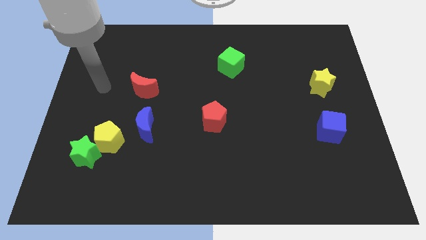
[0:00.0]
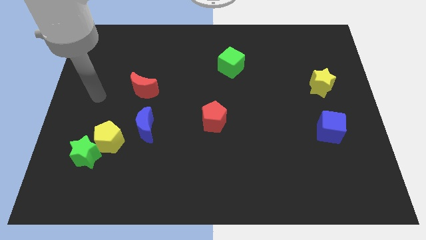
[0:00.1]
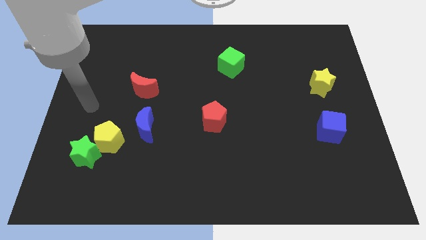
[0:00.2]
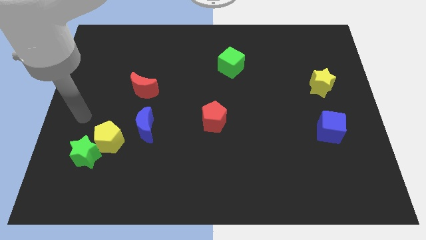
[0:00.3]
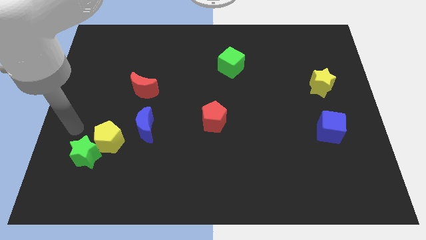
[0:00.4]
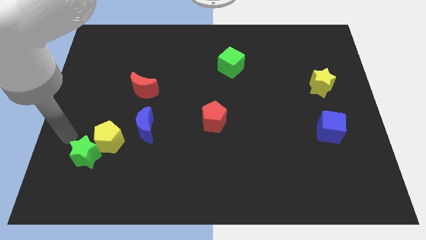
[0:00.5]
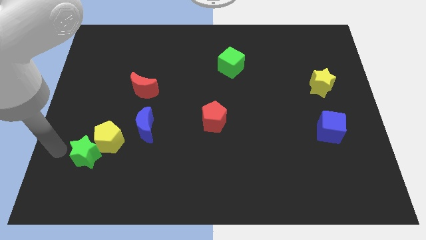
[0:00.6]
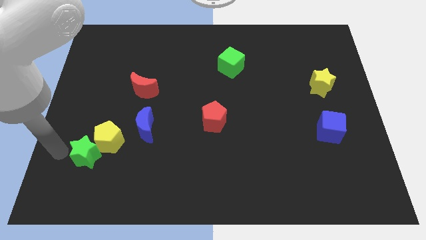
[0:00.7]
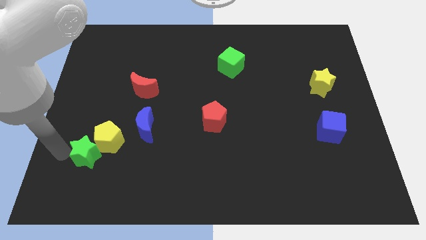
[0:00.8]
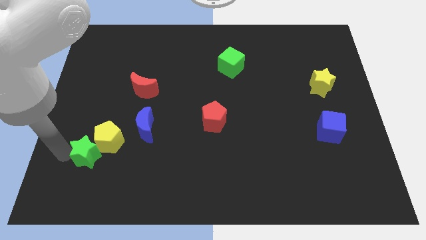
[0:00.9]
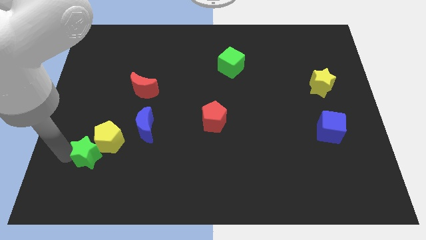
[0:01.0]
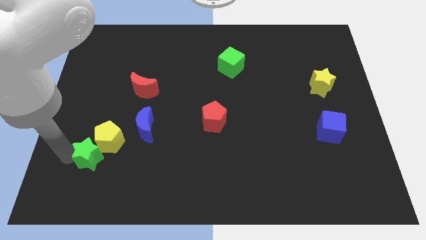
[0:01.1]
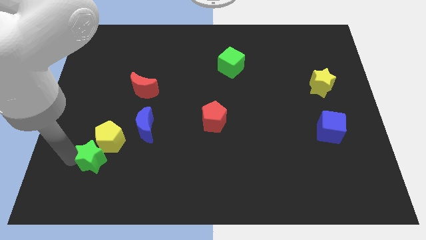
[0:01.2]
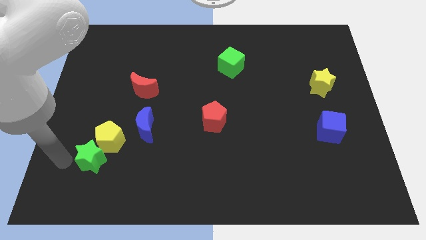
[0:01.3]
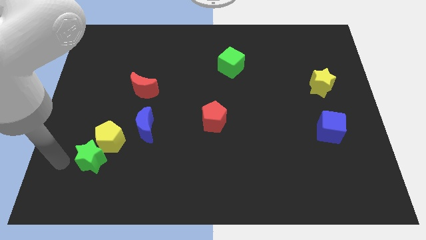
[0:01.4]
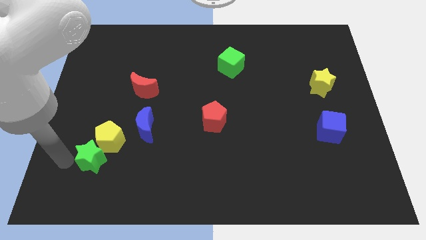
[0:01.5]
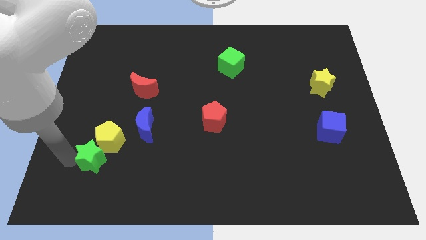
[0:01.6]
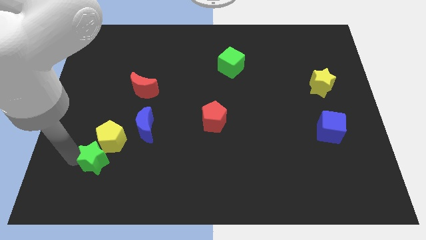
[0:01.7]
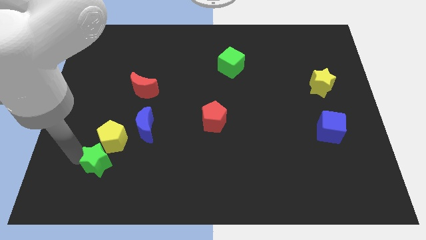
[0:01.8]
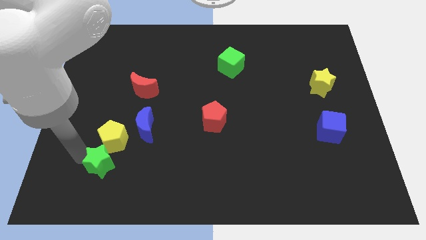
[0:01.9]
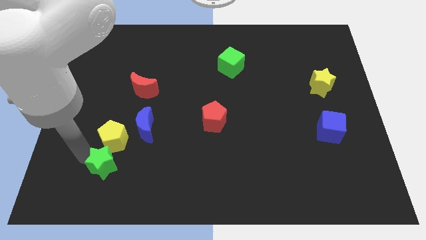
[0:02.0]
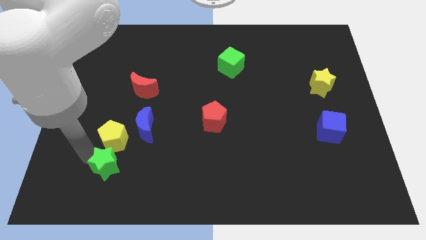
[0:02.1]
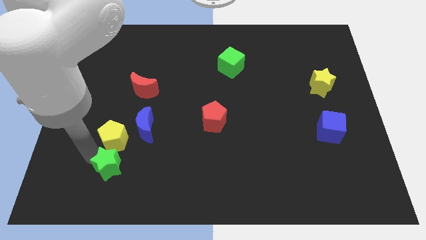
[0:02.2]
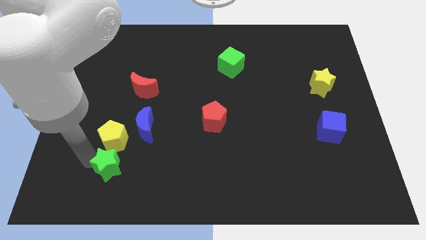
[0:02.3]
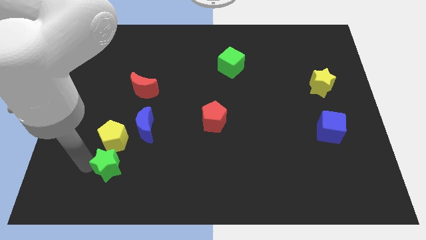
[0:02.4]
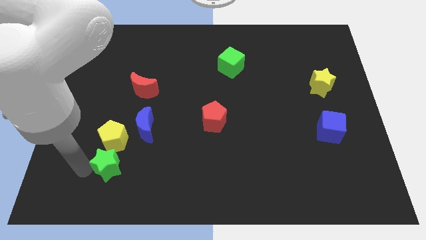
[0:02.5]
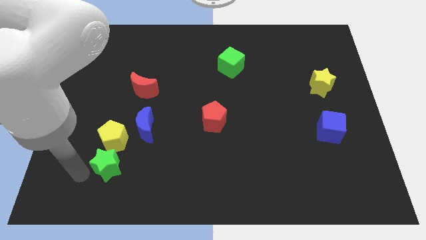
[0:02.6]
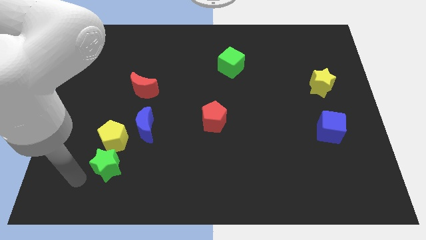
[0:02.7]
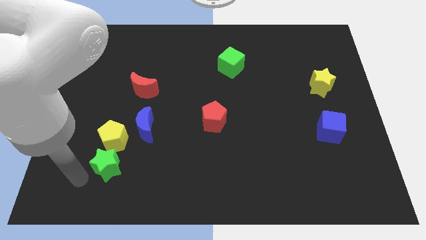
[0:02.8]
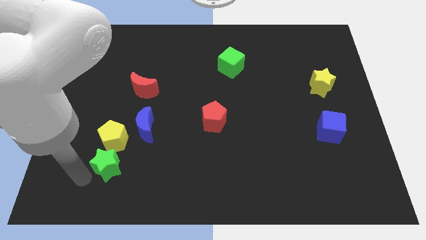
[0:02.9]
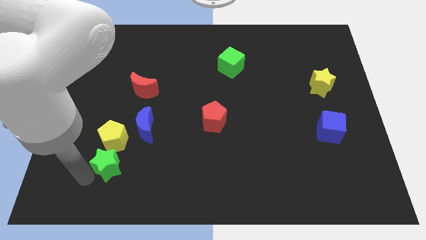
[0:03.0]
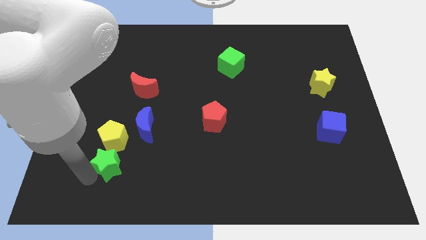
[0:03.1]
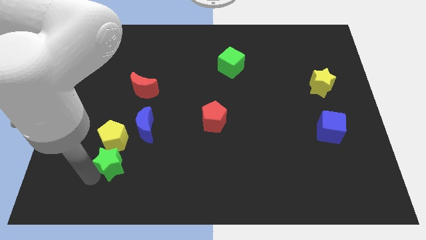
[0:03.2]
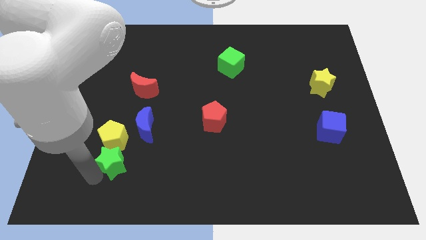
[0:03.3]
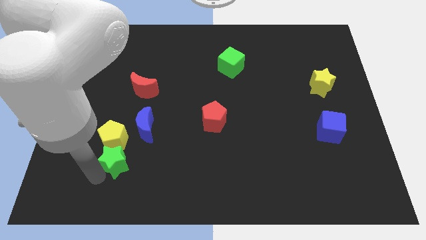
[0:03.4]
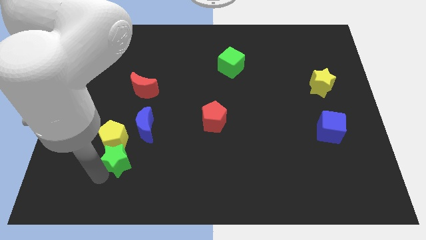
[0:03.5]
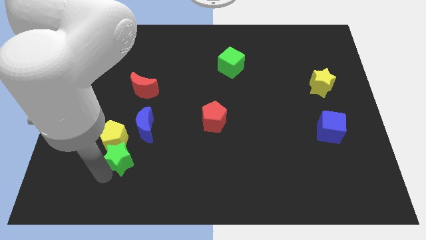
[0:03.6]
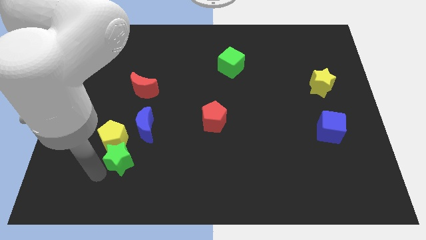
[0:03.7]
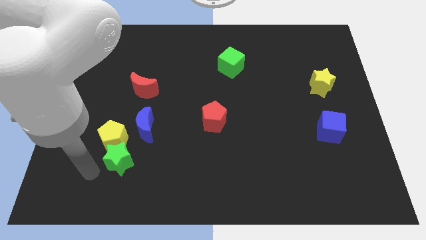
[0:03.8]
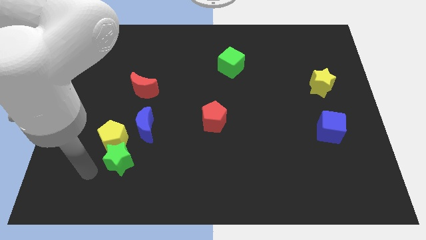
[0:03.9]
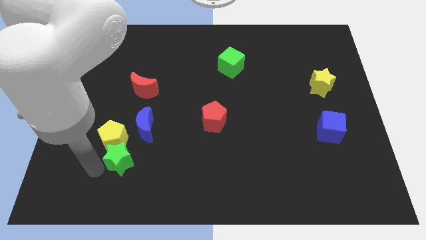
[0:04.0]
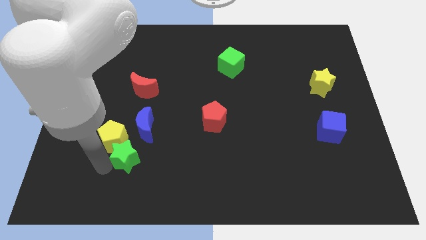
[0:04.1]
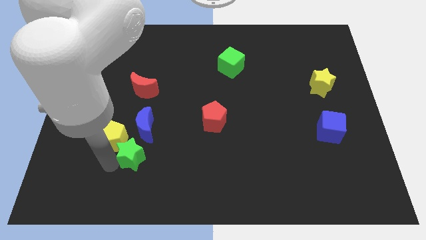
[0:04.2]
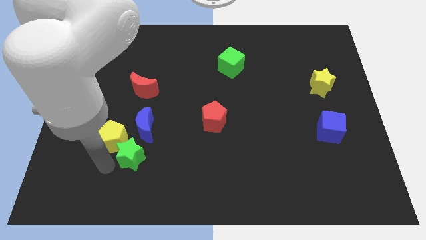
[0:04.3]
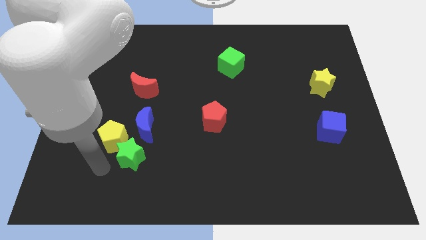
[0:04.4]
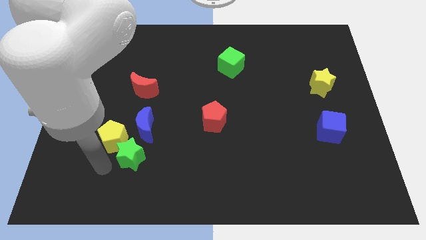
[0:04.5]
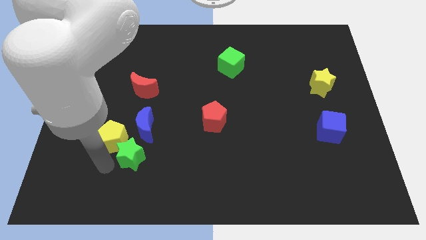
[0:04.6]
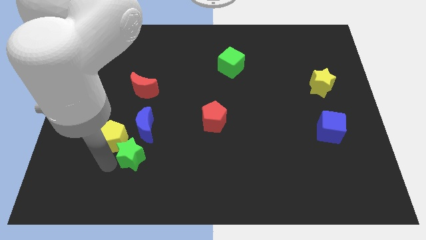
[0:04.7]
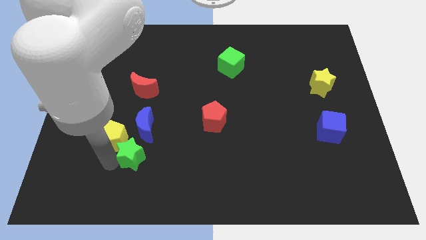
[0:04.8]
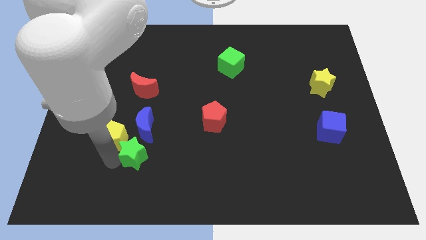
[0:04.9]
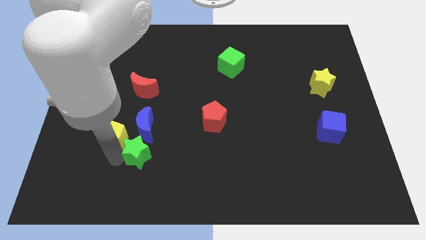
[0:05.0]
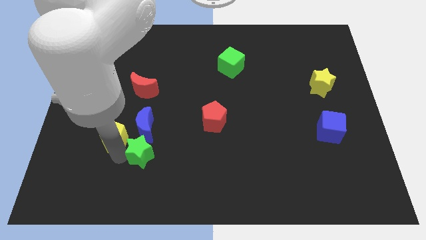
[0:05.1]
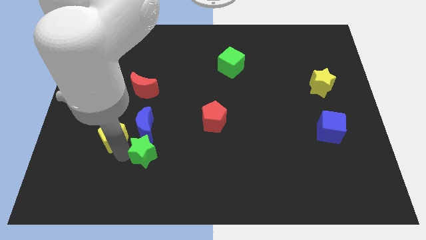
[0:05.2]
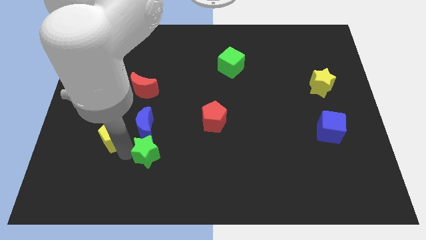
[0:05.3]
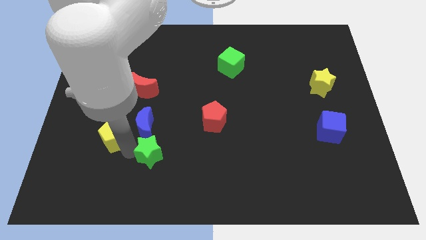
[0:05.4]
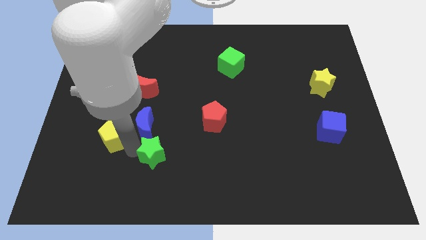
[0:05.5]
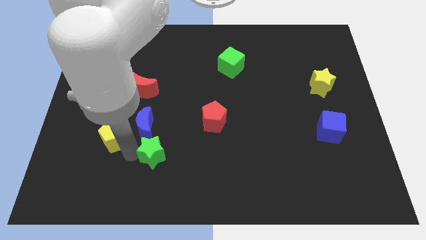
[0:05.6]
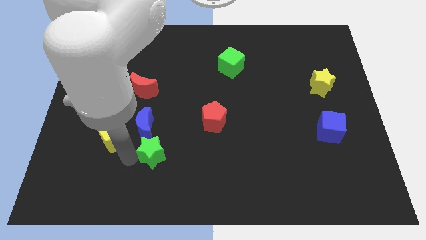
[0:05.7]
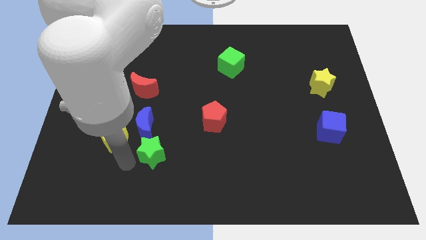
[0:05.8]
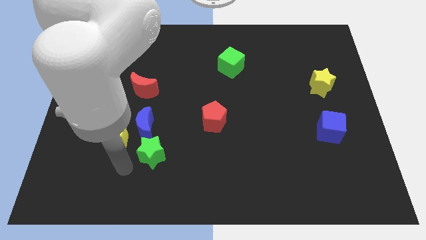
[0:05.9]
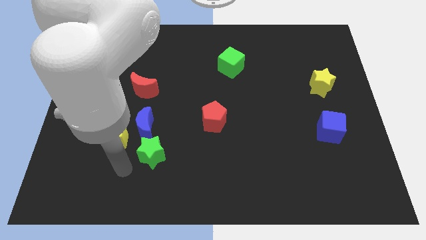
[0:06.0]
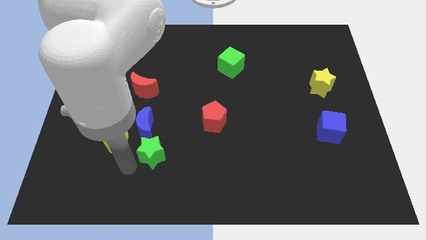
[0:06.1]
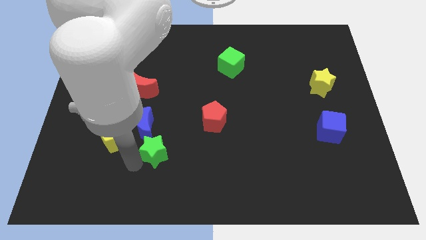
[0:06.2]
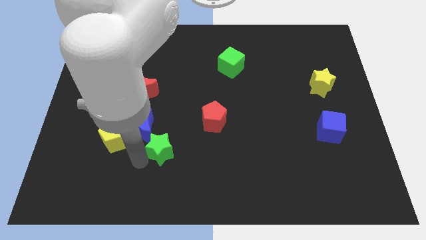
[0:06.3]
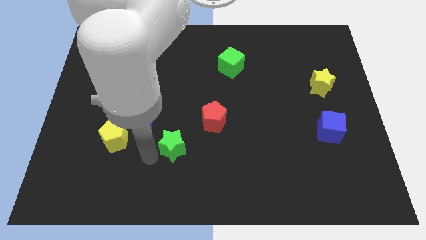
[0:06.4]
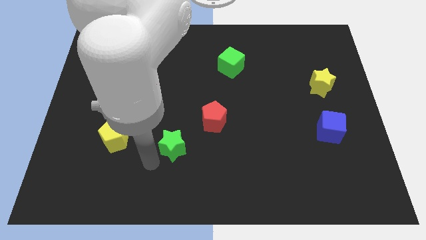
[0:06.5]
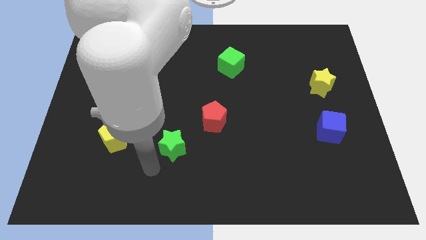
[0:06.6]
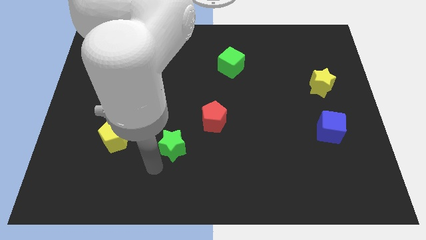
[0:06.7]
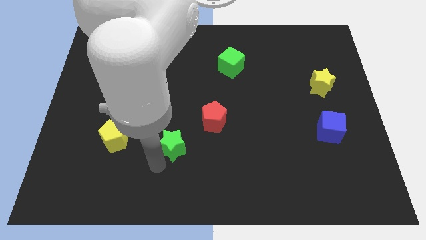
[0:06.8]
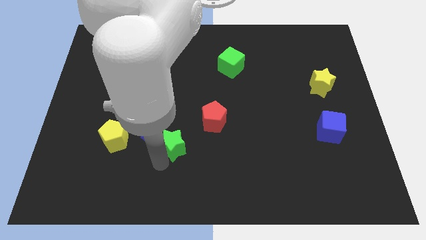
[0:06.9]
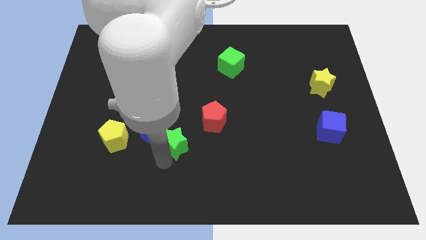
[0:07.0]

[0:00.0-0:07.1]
move the green star to the right of the blue moon
